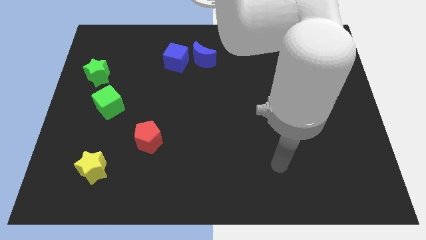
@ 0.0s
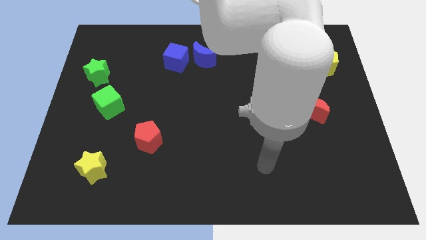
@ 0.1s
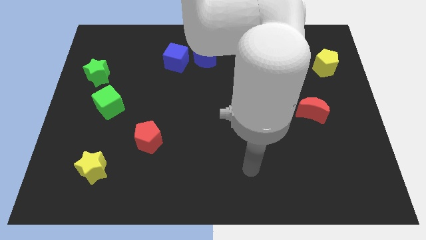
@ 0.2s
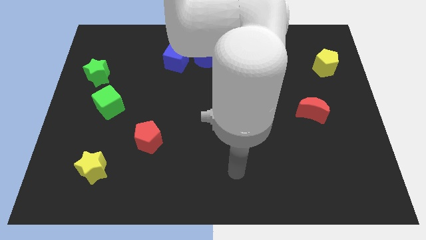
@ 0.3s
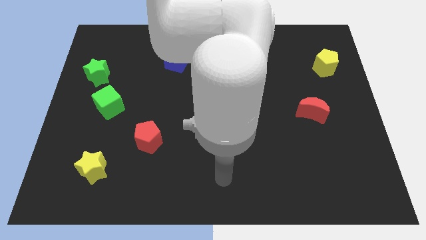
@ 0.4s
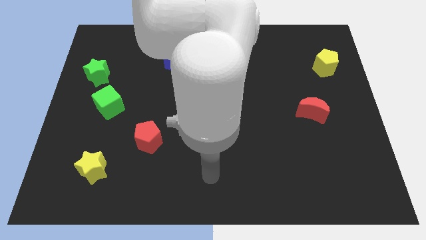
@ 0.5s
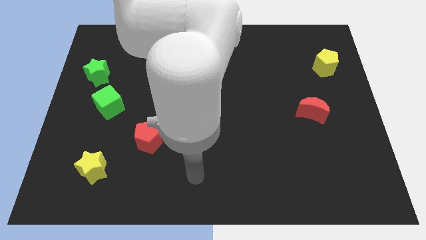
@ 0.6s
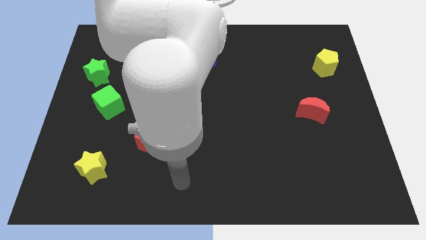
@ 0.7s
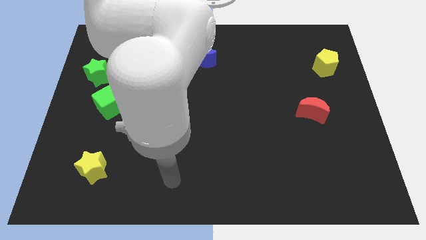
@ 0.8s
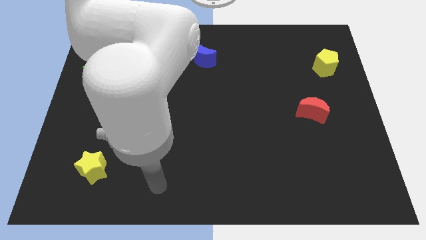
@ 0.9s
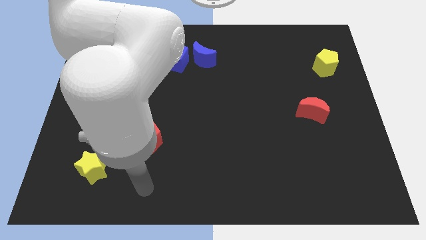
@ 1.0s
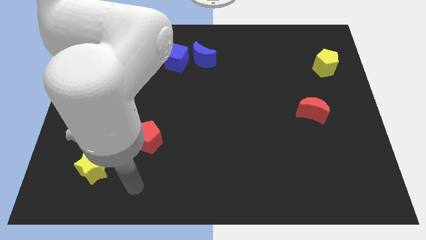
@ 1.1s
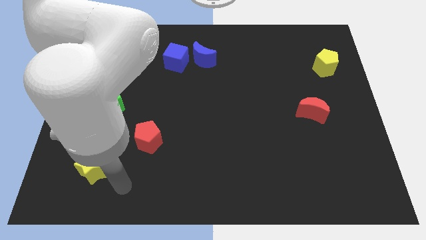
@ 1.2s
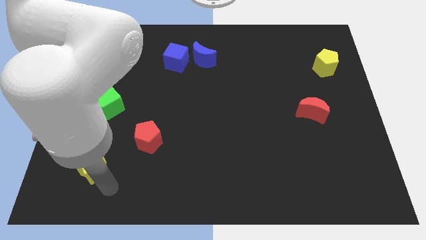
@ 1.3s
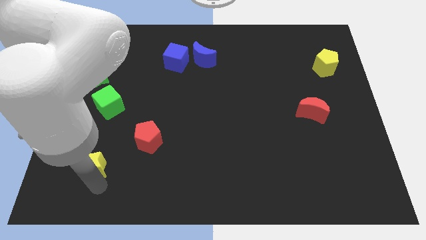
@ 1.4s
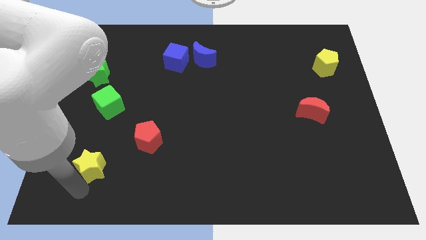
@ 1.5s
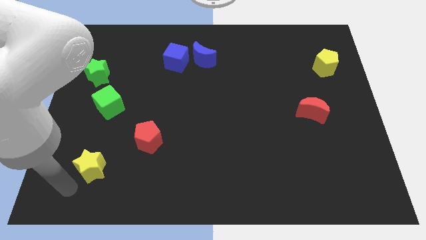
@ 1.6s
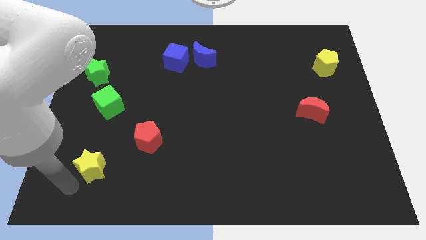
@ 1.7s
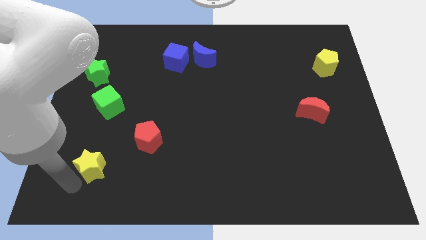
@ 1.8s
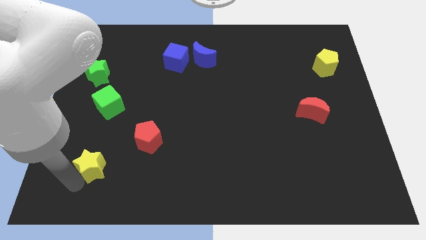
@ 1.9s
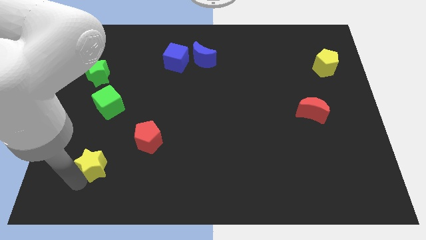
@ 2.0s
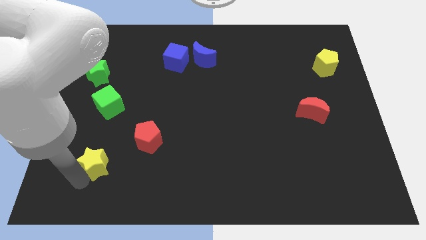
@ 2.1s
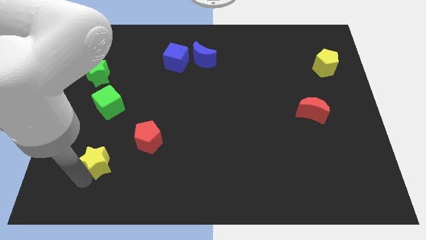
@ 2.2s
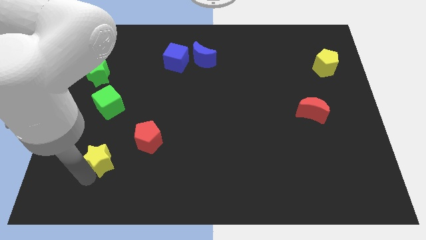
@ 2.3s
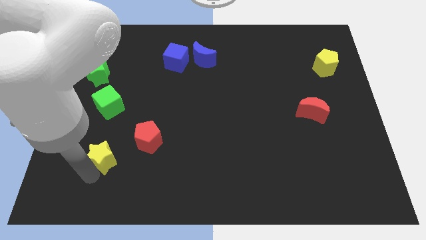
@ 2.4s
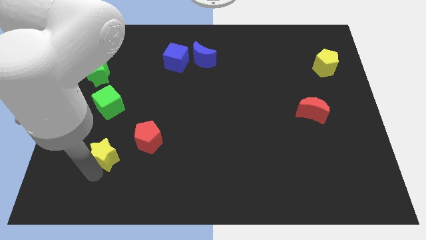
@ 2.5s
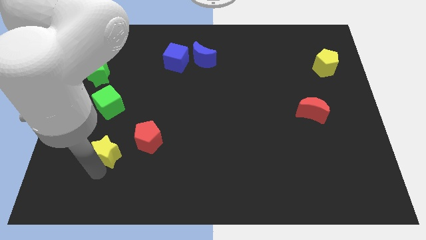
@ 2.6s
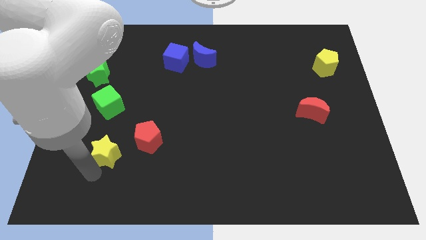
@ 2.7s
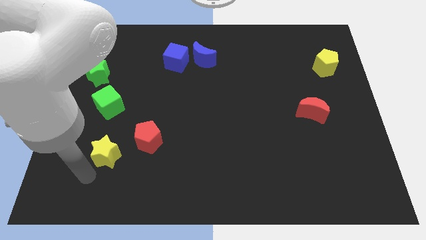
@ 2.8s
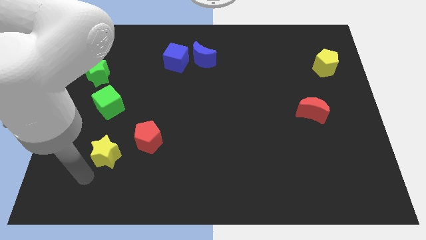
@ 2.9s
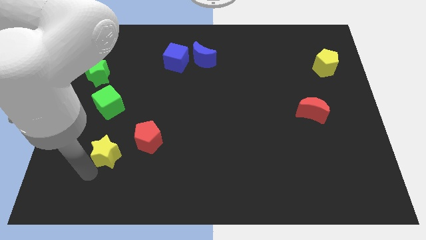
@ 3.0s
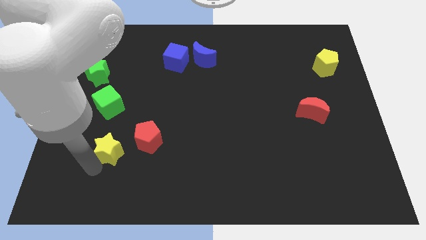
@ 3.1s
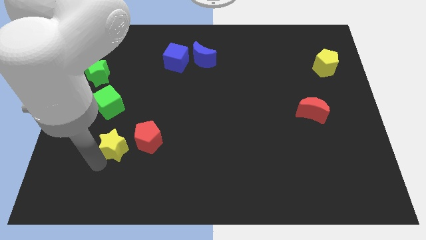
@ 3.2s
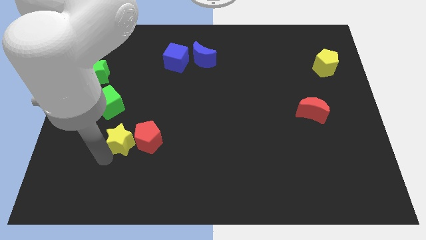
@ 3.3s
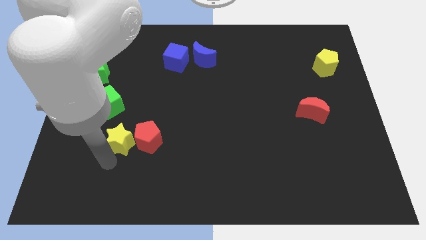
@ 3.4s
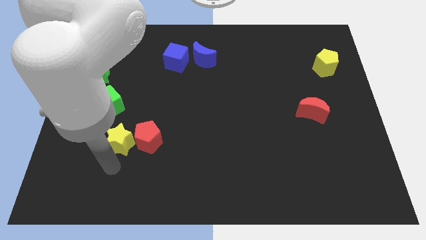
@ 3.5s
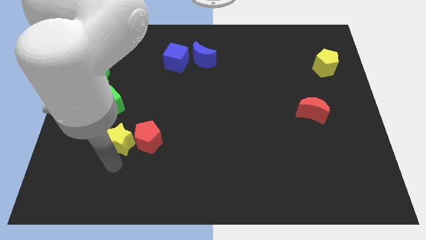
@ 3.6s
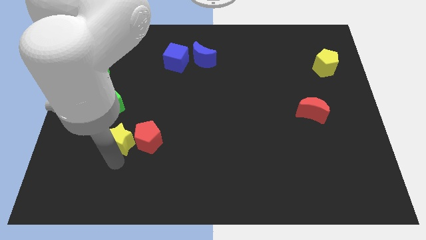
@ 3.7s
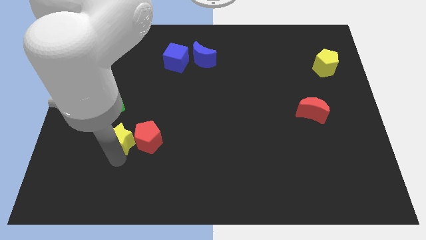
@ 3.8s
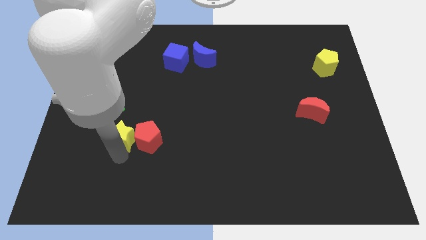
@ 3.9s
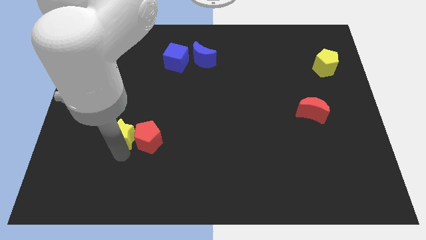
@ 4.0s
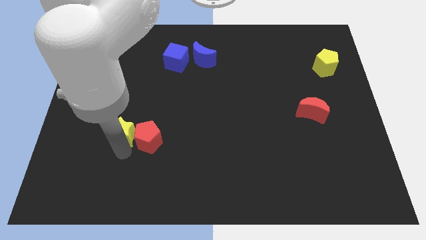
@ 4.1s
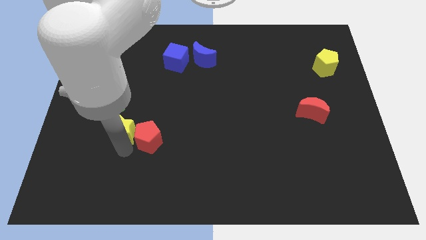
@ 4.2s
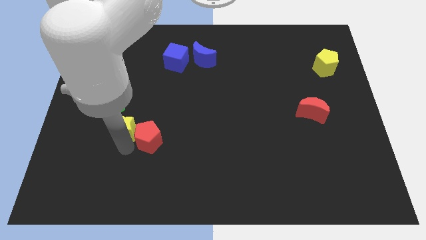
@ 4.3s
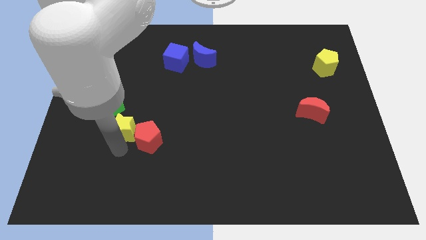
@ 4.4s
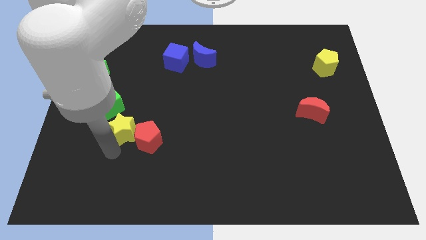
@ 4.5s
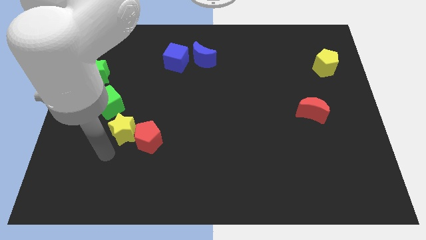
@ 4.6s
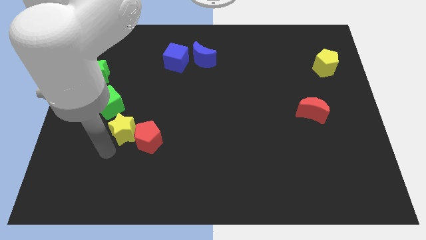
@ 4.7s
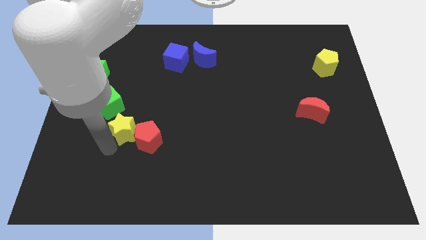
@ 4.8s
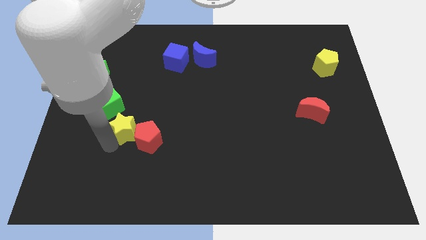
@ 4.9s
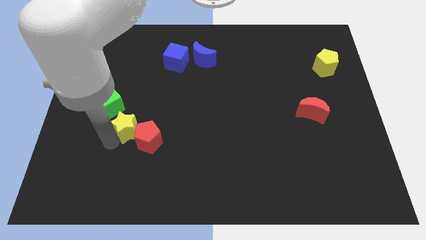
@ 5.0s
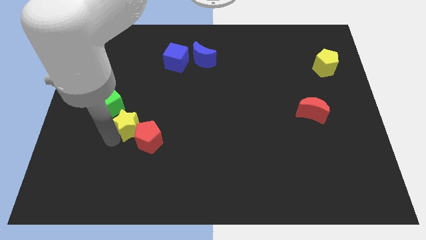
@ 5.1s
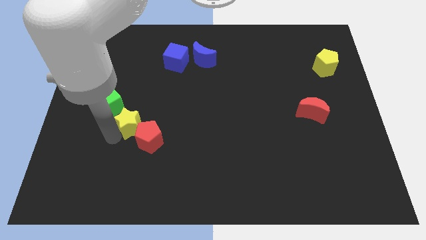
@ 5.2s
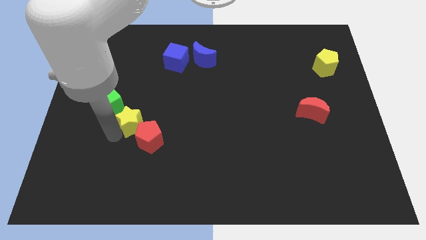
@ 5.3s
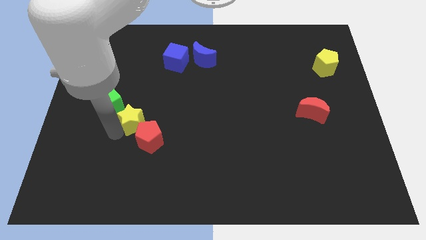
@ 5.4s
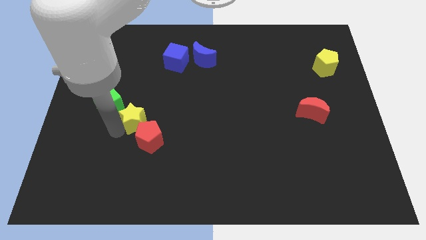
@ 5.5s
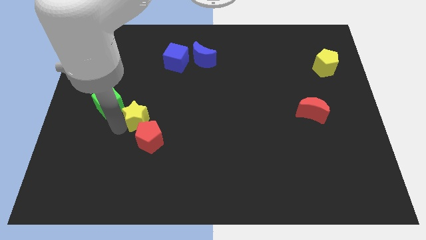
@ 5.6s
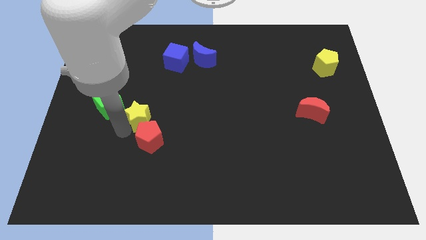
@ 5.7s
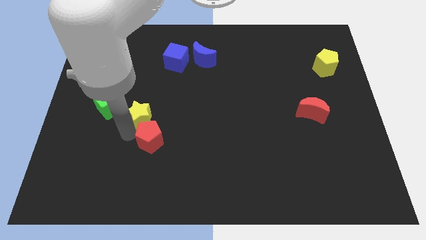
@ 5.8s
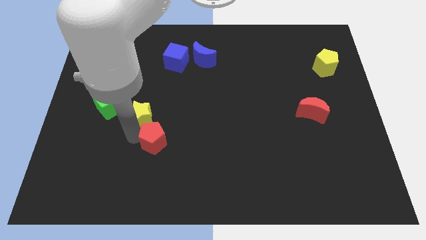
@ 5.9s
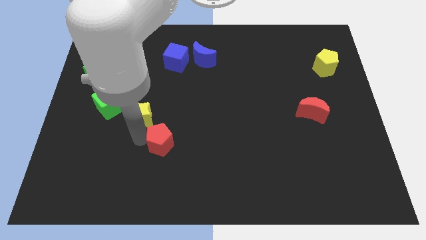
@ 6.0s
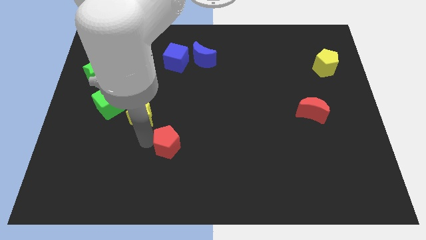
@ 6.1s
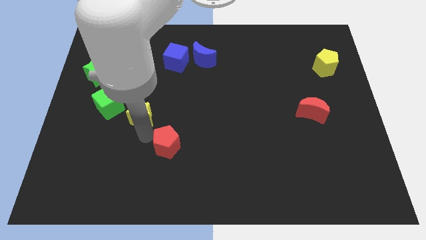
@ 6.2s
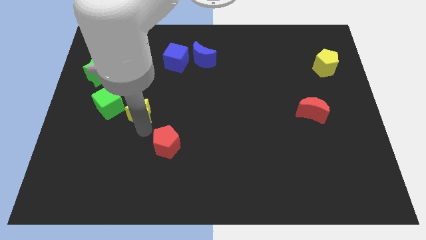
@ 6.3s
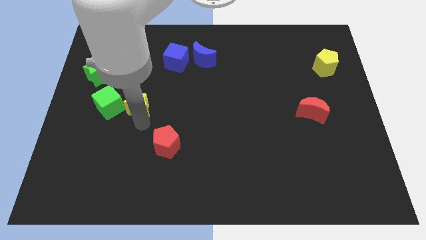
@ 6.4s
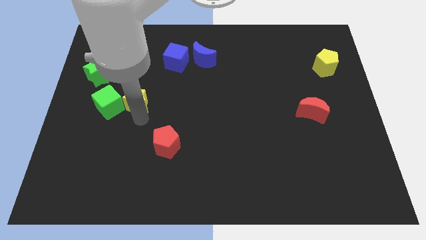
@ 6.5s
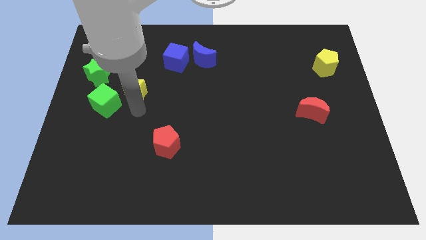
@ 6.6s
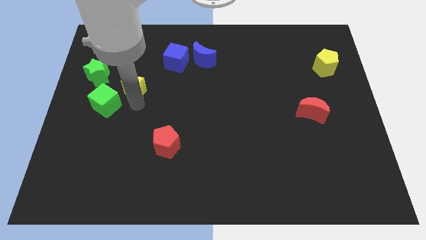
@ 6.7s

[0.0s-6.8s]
push the yellow star upwards

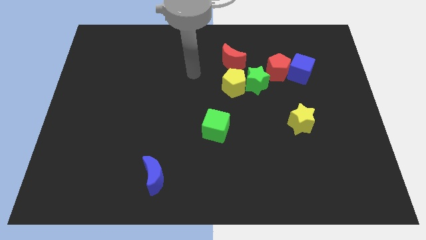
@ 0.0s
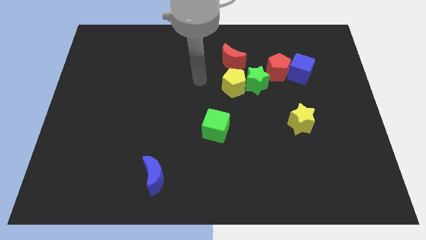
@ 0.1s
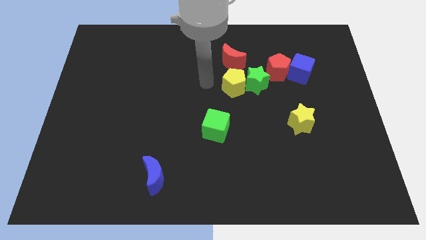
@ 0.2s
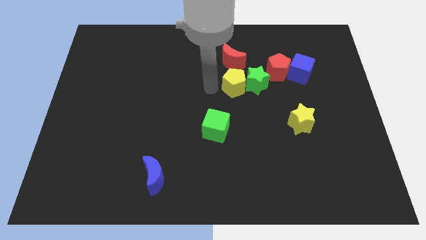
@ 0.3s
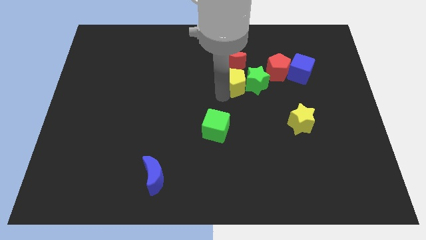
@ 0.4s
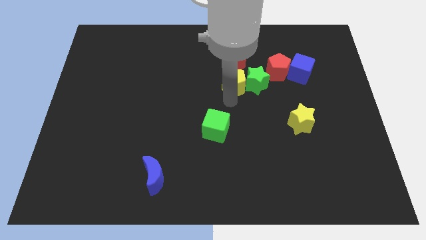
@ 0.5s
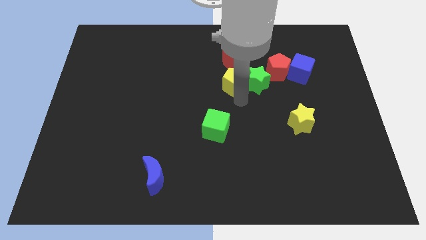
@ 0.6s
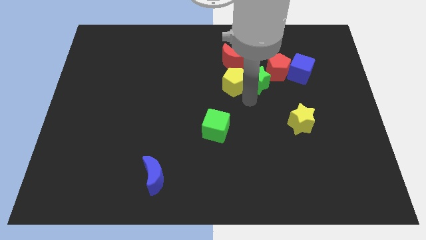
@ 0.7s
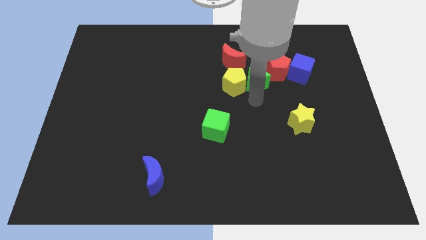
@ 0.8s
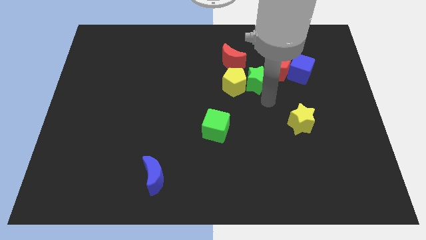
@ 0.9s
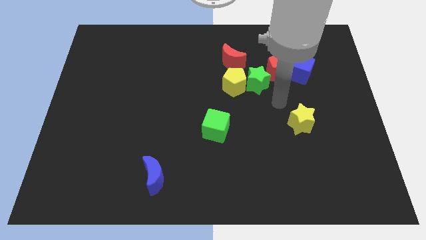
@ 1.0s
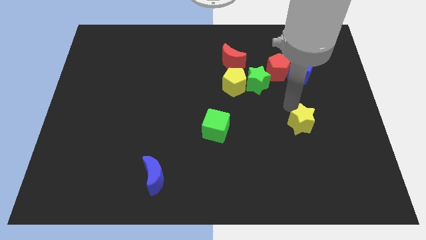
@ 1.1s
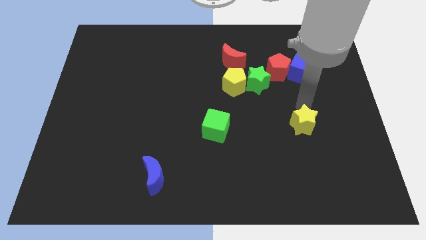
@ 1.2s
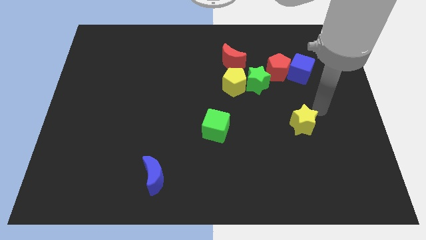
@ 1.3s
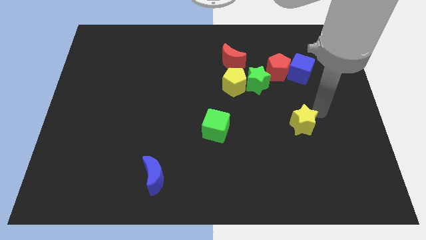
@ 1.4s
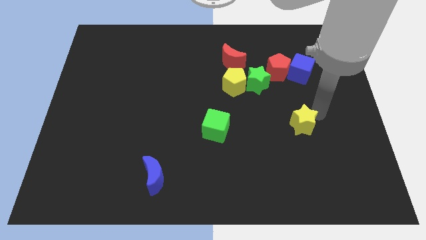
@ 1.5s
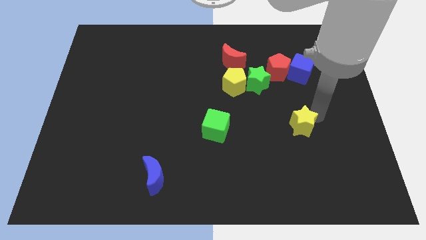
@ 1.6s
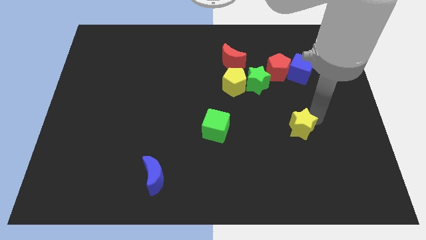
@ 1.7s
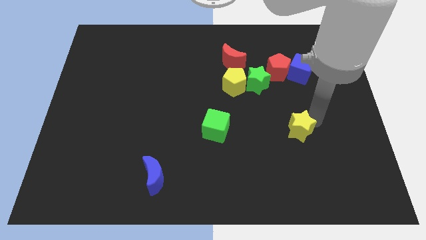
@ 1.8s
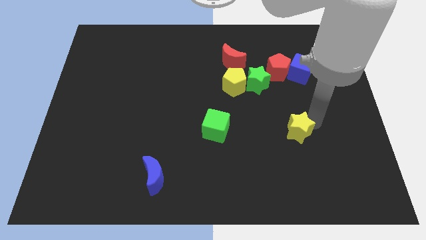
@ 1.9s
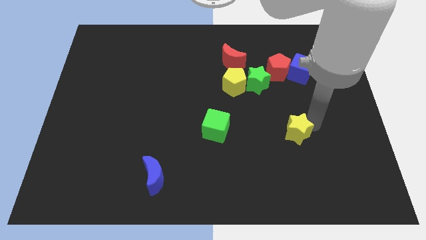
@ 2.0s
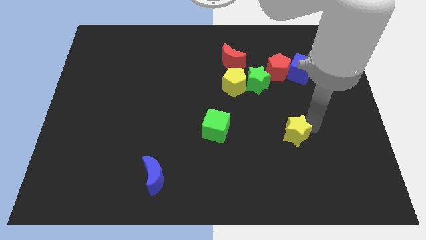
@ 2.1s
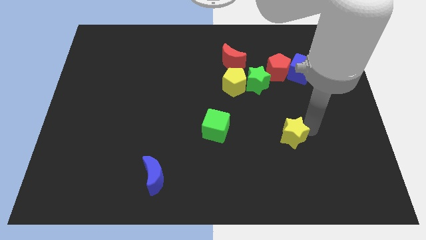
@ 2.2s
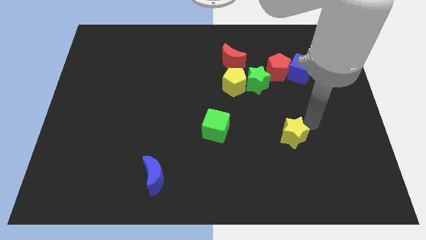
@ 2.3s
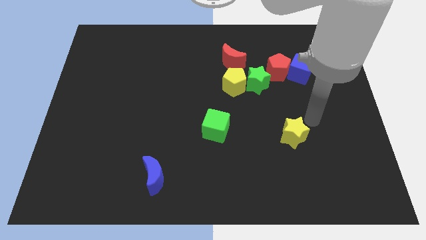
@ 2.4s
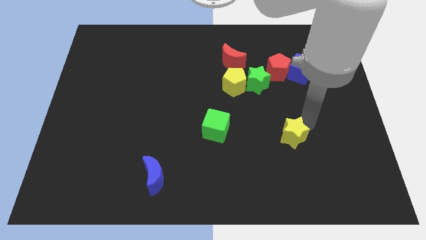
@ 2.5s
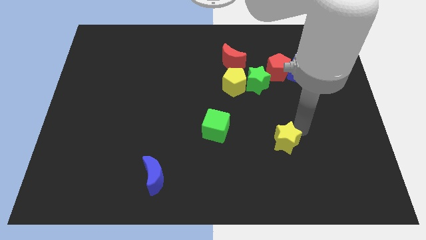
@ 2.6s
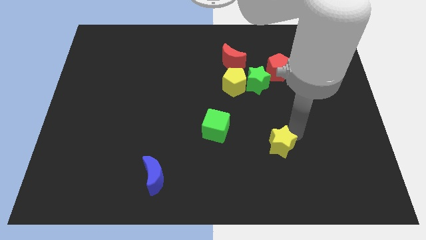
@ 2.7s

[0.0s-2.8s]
push the yellow star downwards and then left a bit
